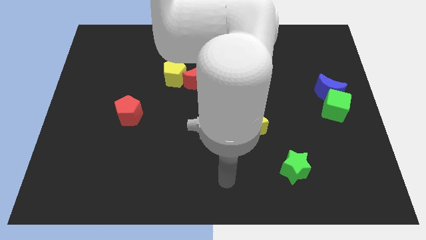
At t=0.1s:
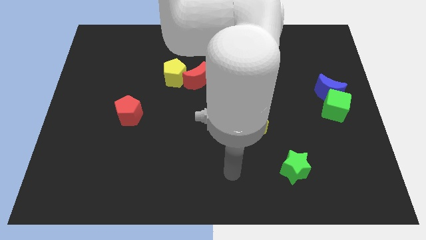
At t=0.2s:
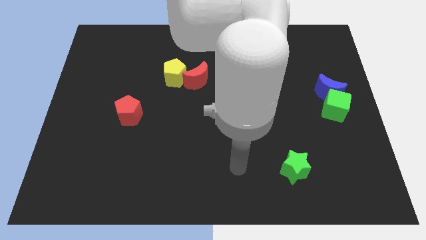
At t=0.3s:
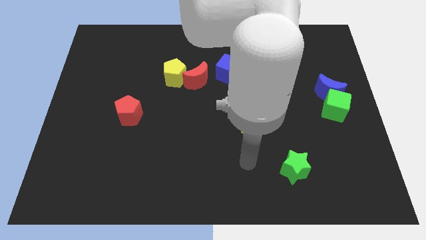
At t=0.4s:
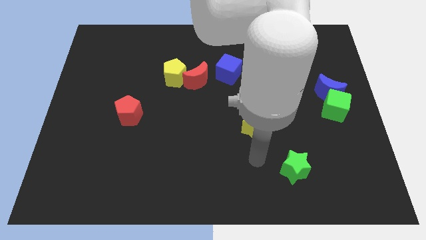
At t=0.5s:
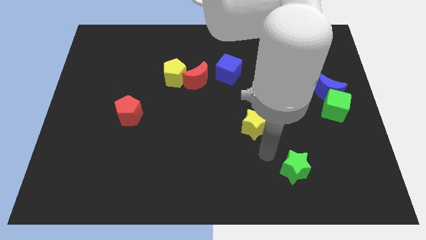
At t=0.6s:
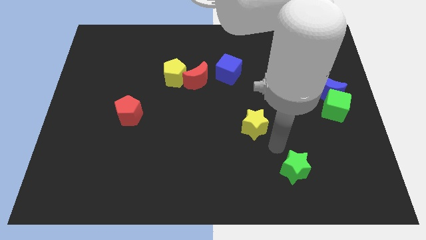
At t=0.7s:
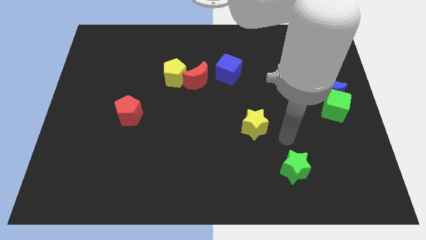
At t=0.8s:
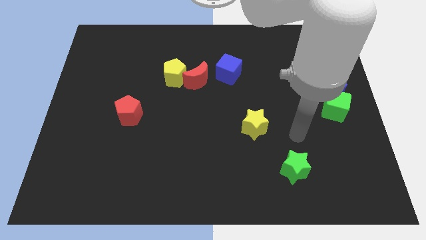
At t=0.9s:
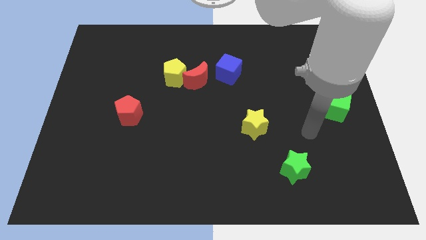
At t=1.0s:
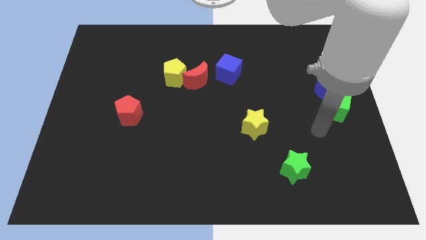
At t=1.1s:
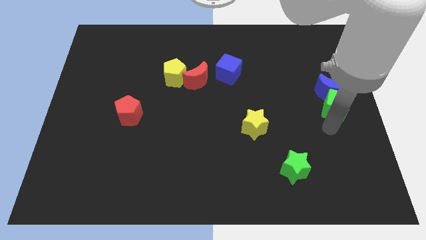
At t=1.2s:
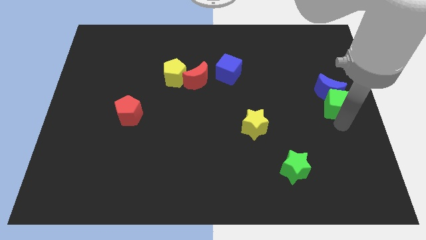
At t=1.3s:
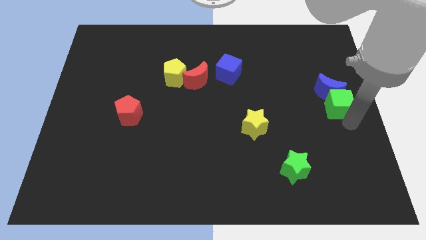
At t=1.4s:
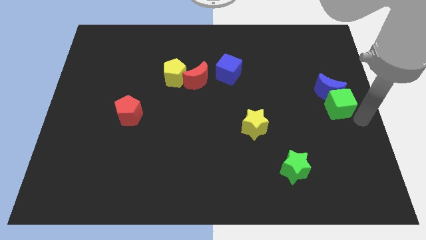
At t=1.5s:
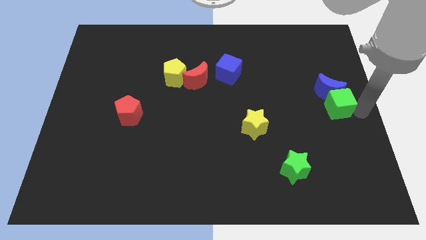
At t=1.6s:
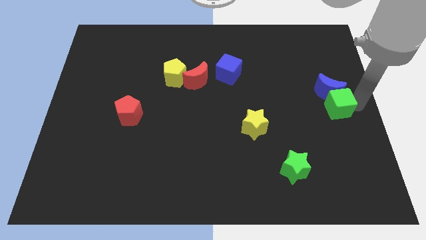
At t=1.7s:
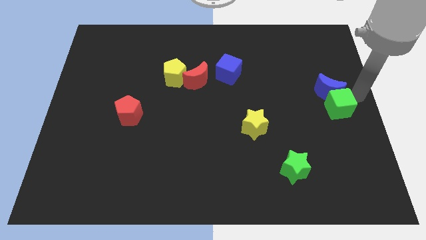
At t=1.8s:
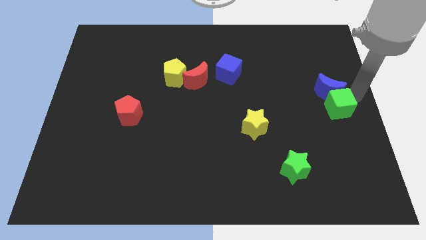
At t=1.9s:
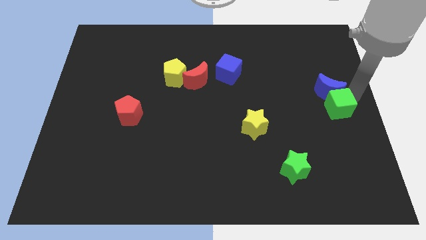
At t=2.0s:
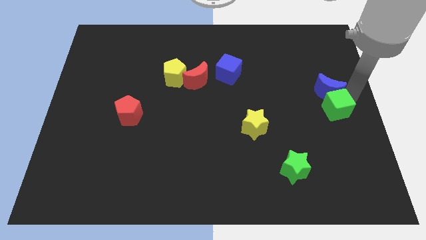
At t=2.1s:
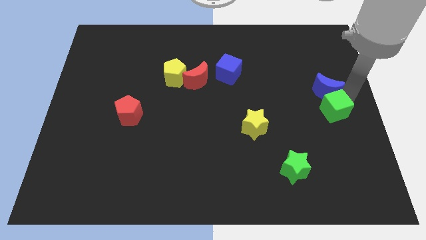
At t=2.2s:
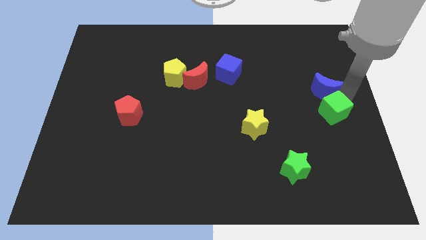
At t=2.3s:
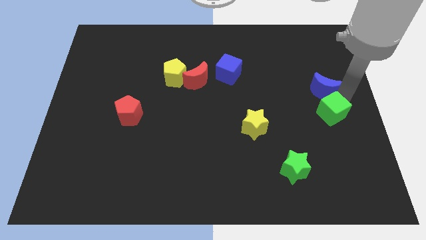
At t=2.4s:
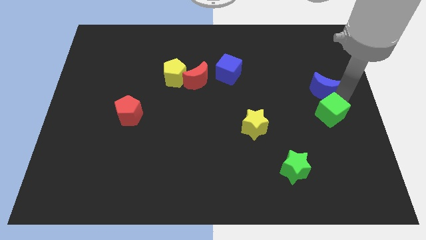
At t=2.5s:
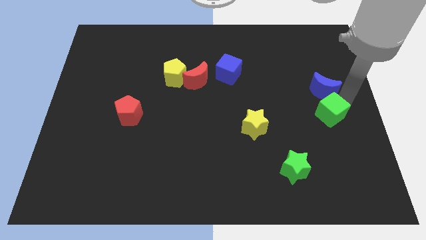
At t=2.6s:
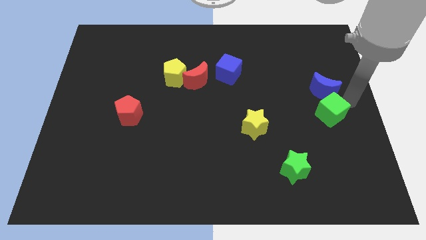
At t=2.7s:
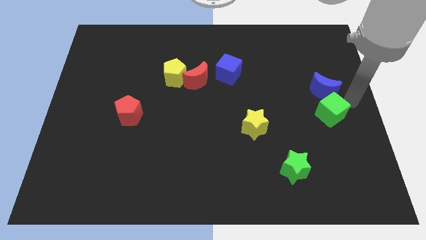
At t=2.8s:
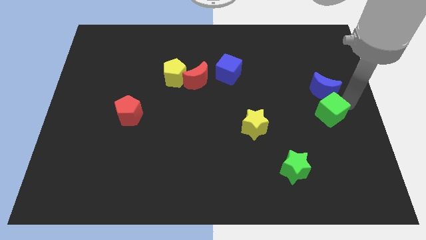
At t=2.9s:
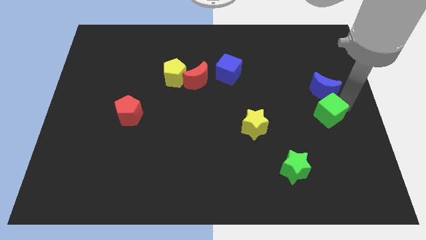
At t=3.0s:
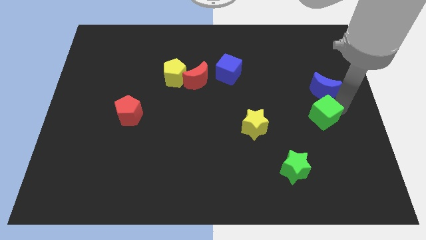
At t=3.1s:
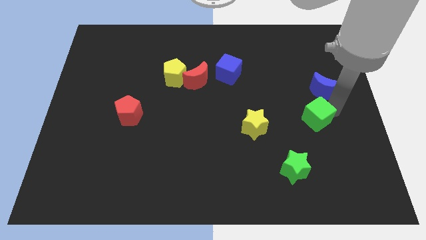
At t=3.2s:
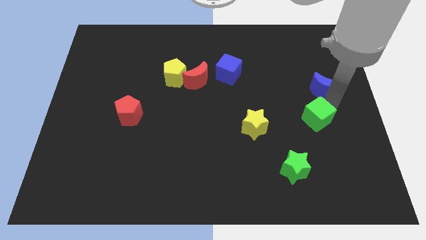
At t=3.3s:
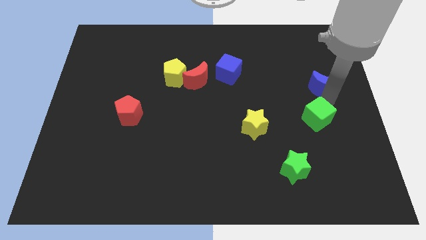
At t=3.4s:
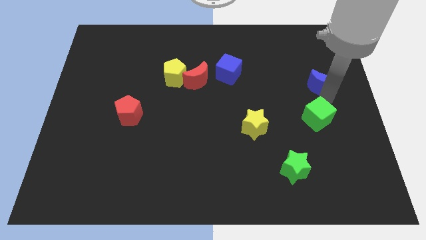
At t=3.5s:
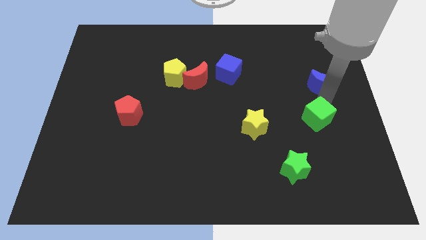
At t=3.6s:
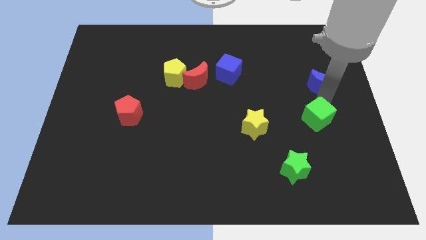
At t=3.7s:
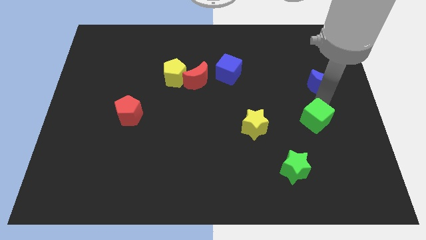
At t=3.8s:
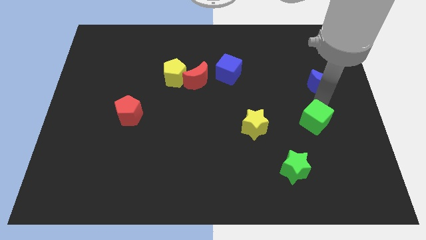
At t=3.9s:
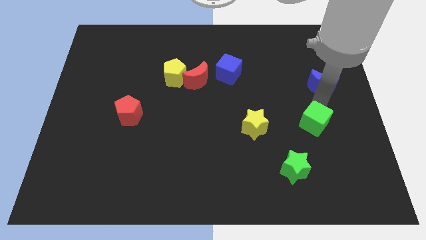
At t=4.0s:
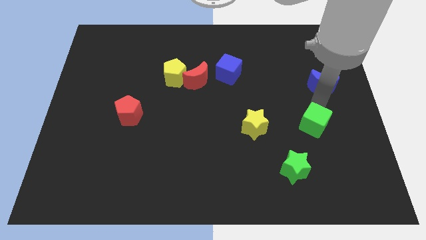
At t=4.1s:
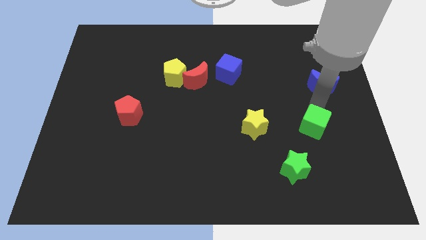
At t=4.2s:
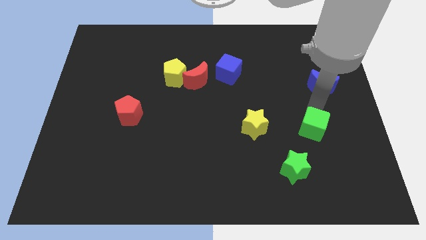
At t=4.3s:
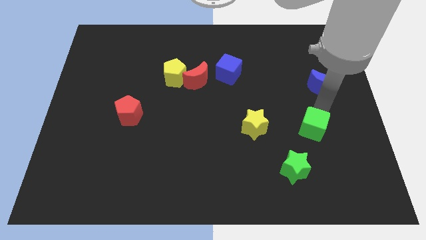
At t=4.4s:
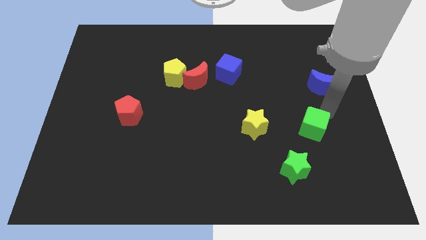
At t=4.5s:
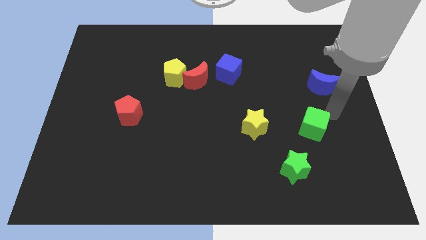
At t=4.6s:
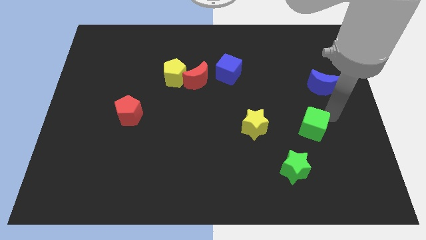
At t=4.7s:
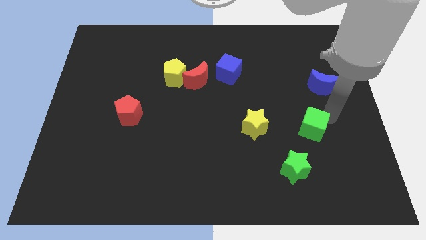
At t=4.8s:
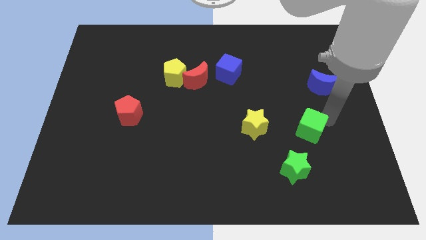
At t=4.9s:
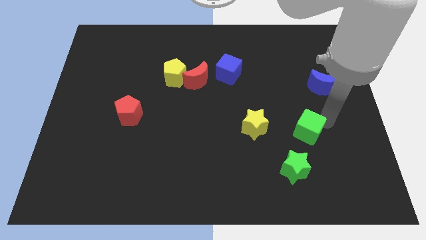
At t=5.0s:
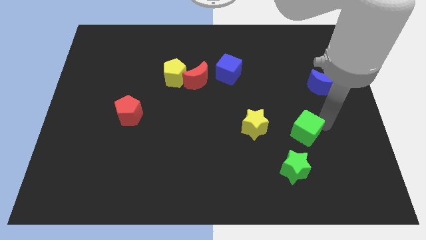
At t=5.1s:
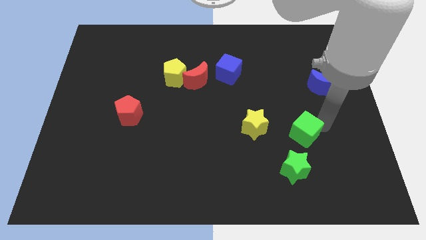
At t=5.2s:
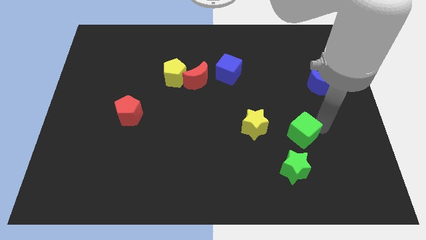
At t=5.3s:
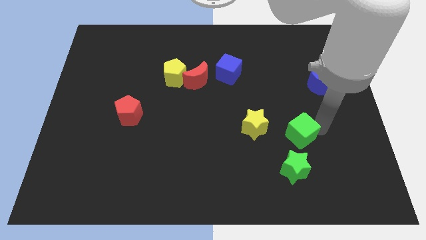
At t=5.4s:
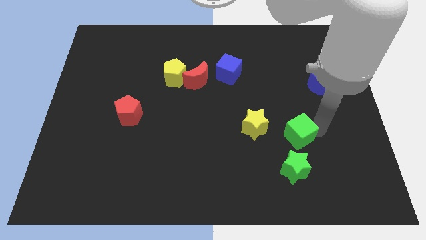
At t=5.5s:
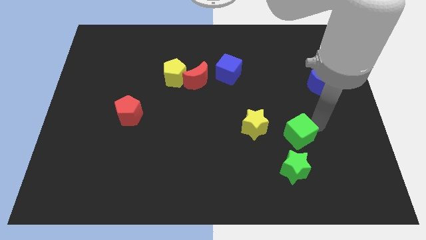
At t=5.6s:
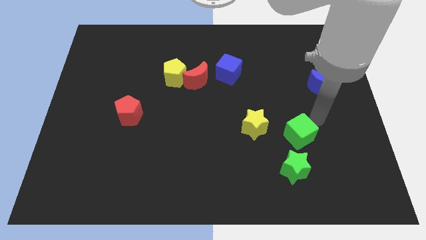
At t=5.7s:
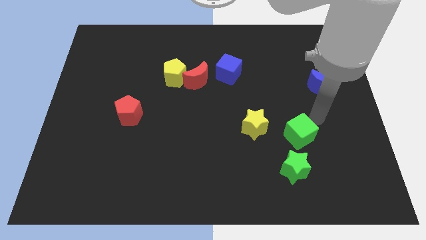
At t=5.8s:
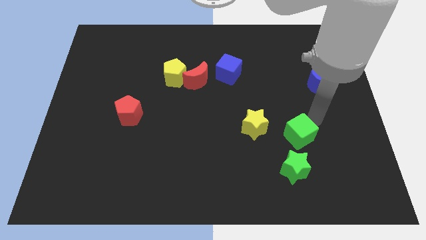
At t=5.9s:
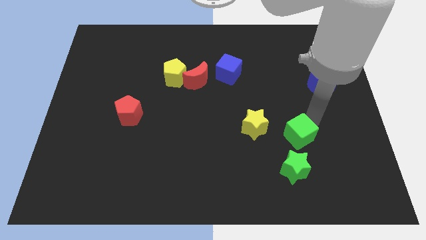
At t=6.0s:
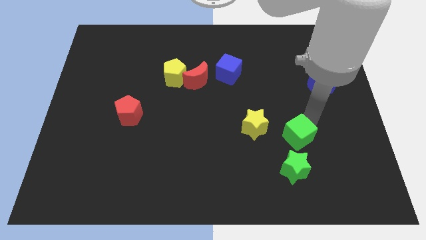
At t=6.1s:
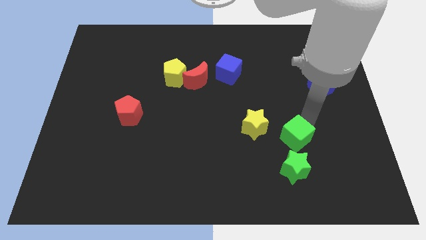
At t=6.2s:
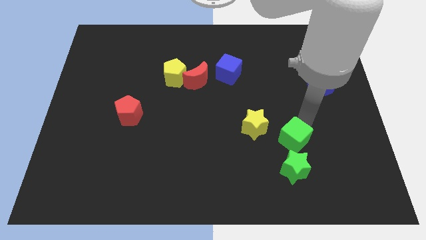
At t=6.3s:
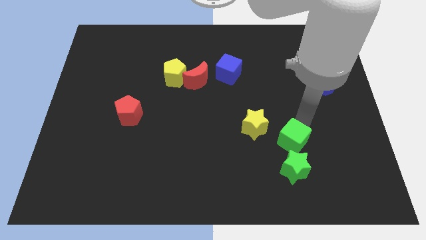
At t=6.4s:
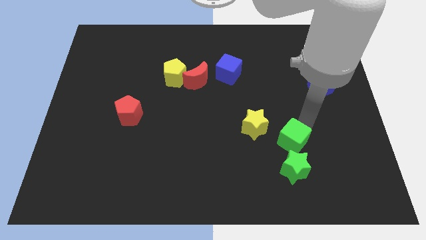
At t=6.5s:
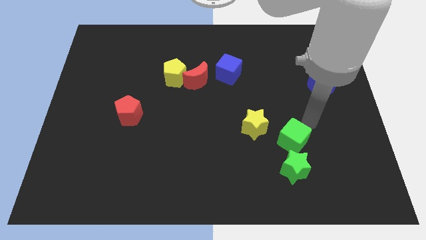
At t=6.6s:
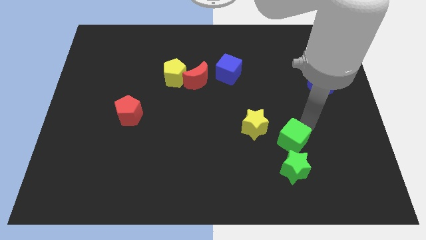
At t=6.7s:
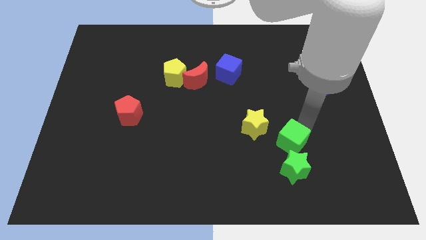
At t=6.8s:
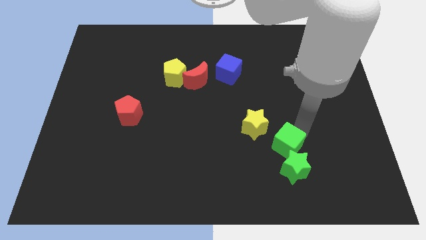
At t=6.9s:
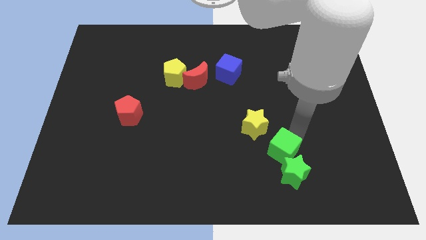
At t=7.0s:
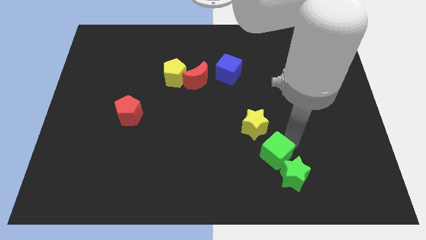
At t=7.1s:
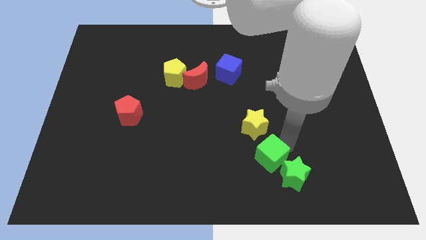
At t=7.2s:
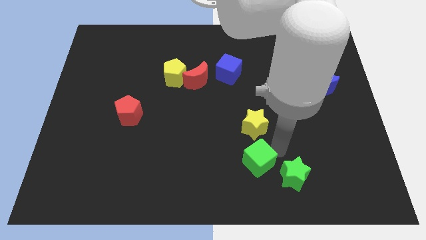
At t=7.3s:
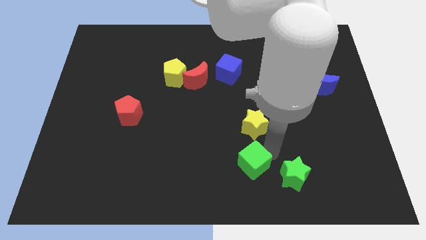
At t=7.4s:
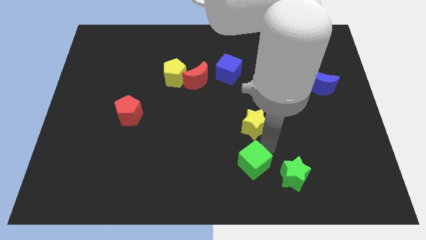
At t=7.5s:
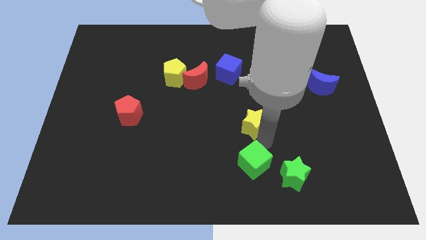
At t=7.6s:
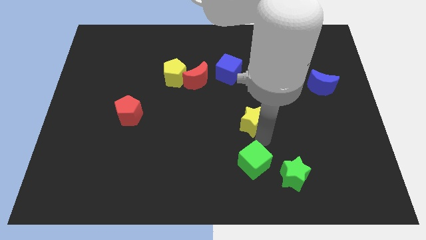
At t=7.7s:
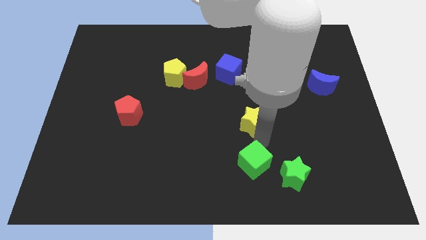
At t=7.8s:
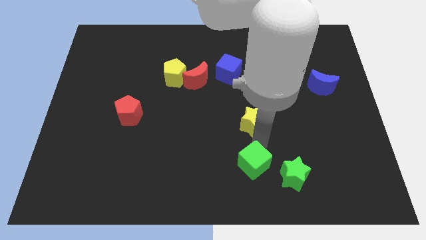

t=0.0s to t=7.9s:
slide the green cube to the bottom
